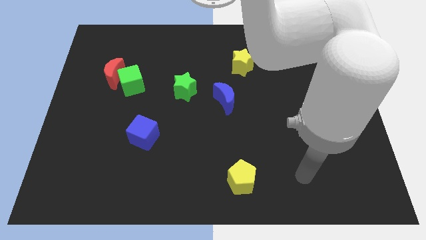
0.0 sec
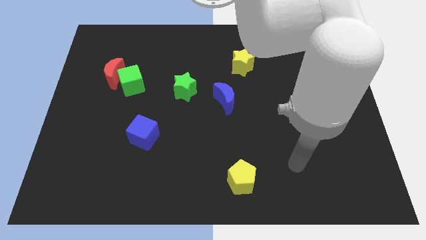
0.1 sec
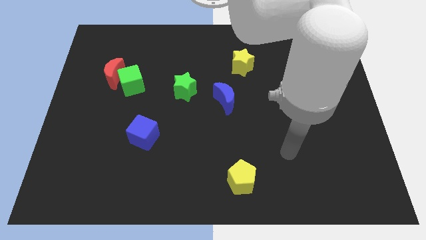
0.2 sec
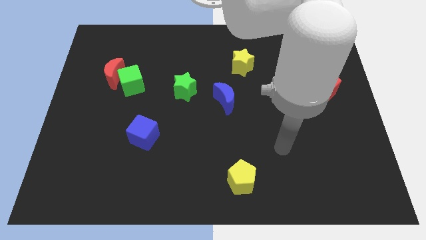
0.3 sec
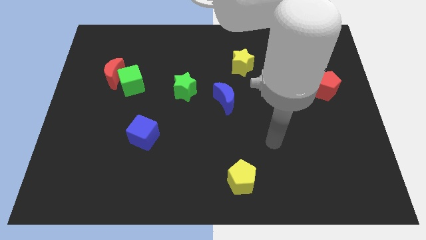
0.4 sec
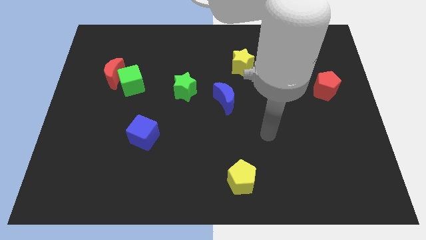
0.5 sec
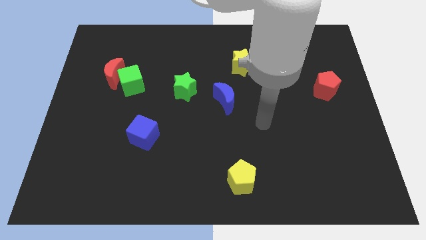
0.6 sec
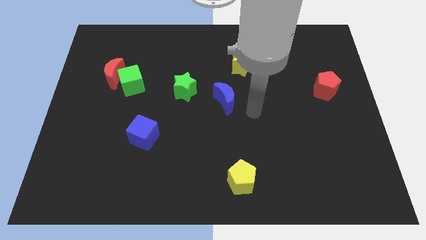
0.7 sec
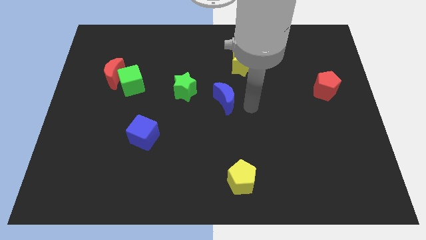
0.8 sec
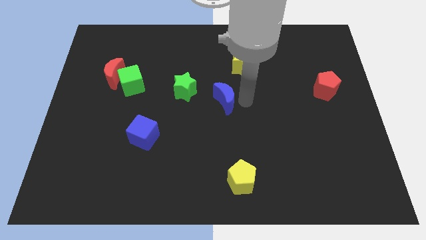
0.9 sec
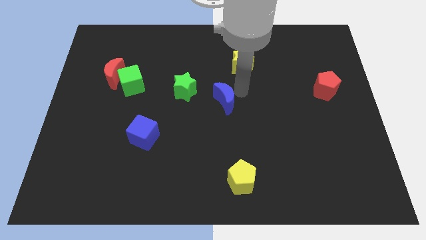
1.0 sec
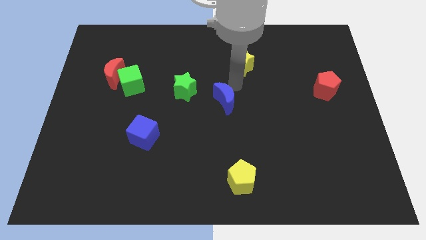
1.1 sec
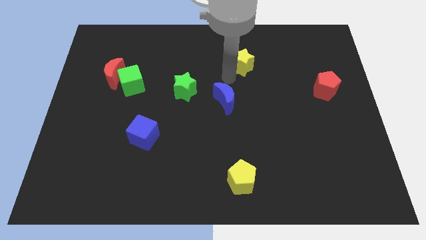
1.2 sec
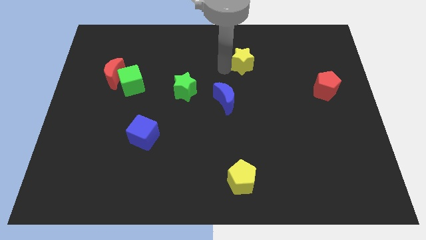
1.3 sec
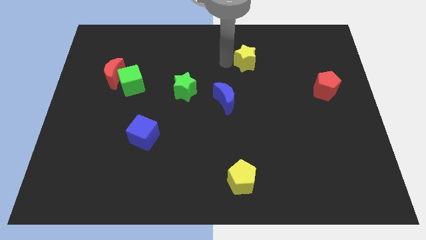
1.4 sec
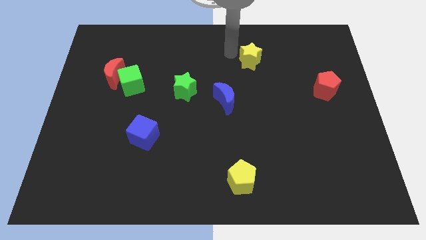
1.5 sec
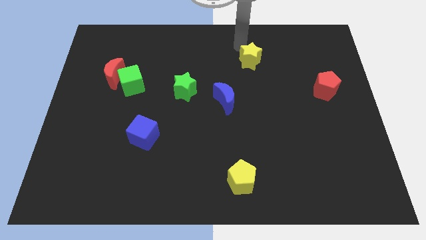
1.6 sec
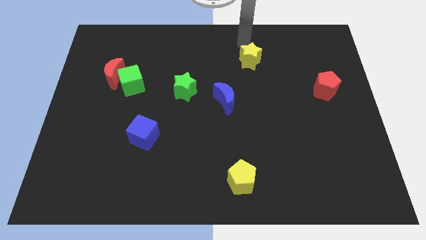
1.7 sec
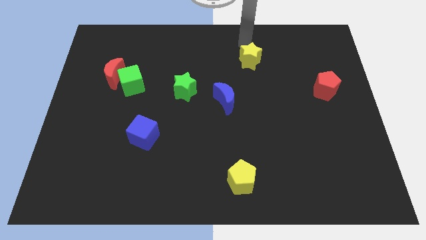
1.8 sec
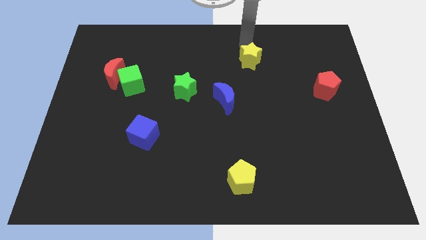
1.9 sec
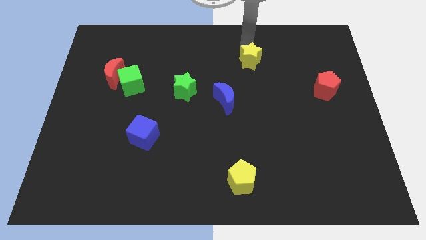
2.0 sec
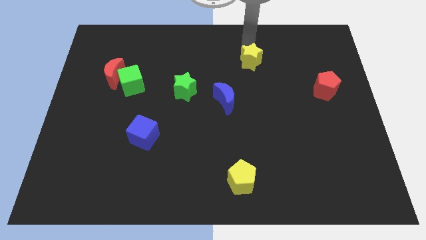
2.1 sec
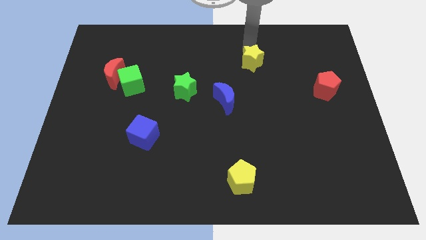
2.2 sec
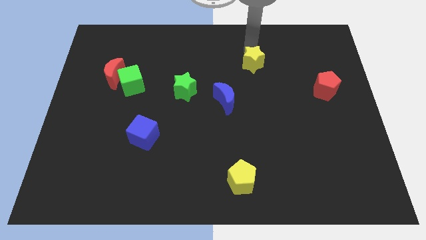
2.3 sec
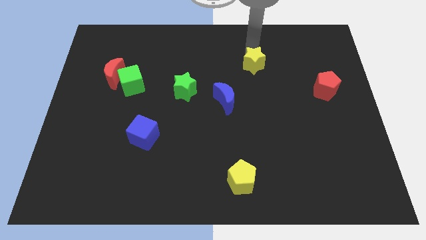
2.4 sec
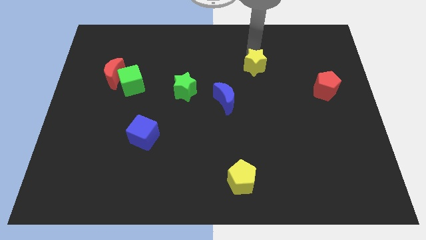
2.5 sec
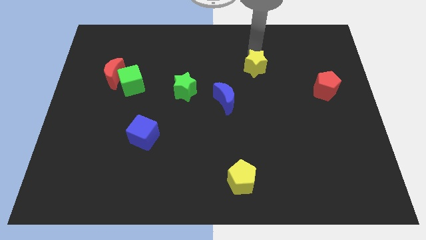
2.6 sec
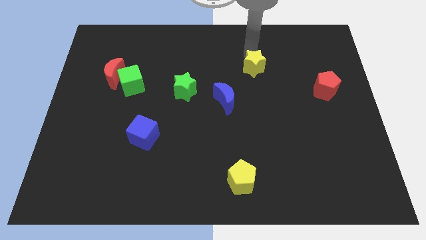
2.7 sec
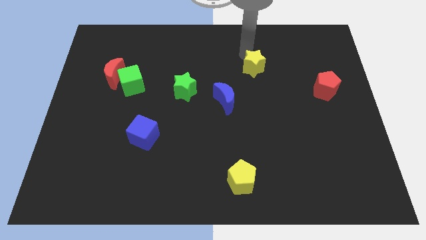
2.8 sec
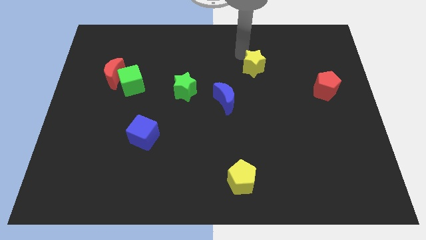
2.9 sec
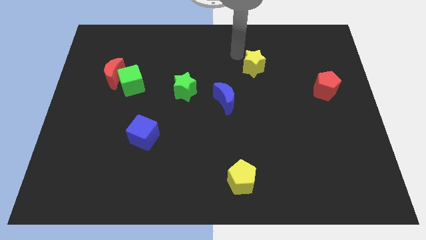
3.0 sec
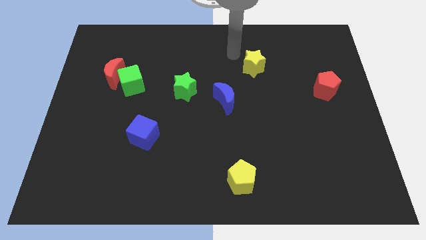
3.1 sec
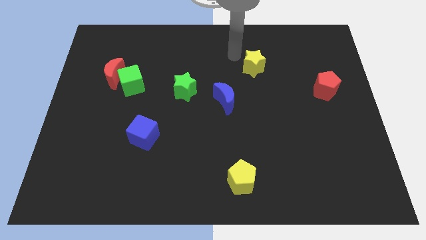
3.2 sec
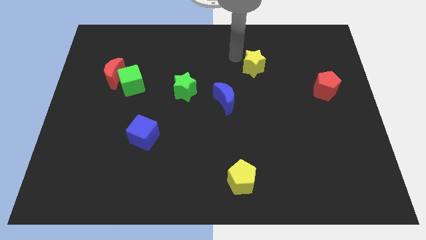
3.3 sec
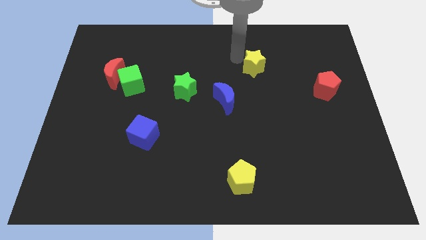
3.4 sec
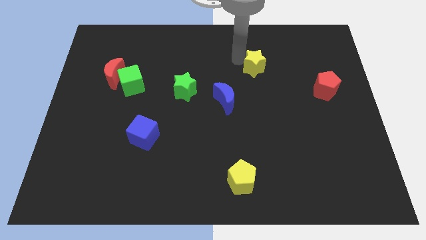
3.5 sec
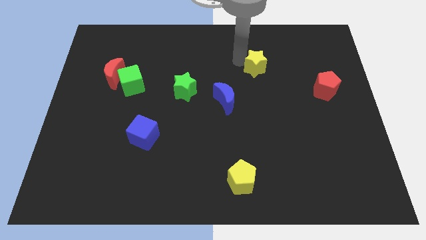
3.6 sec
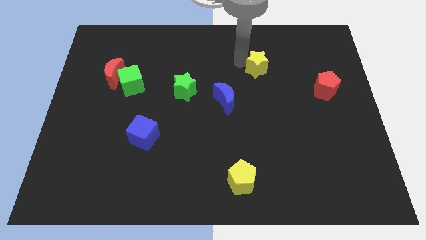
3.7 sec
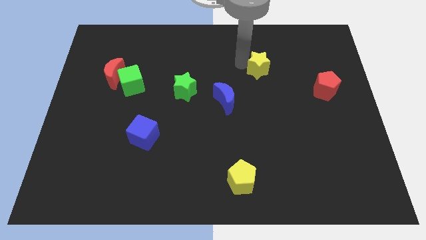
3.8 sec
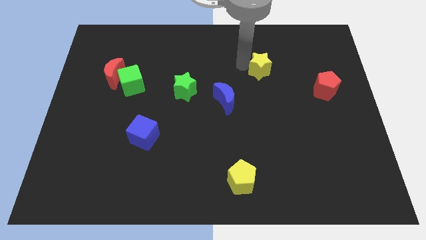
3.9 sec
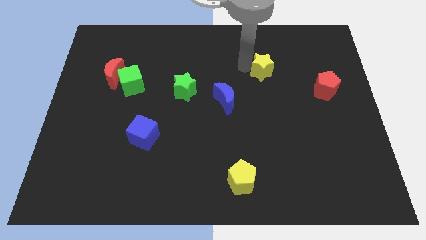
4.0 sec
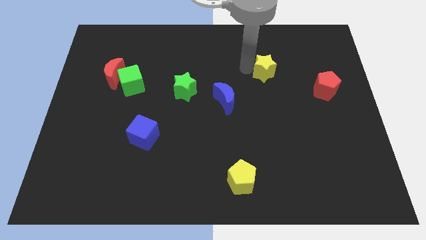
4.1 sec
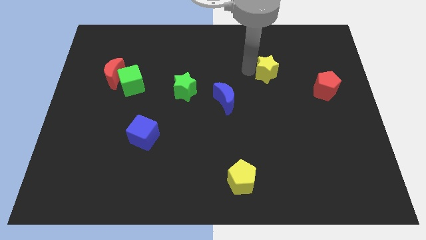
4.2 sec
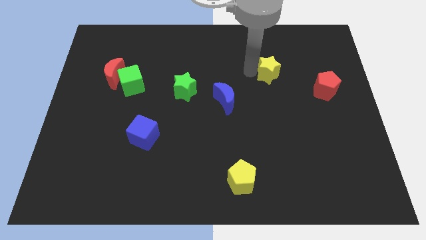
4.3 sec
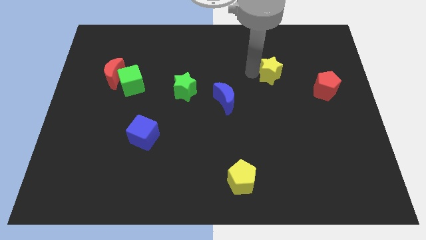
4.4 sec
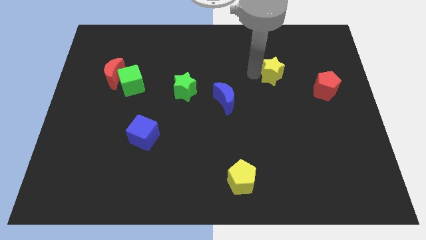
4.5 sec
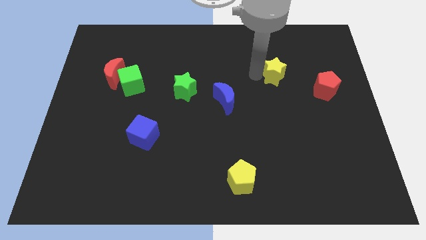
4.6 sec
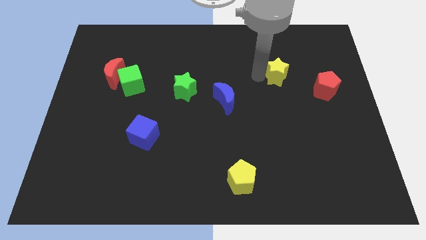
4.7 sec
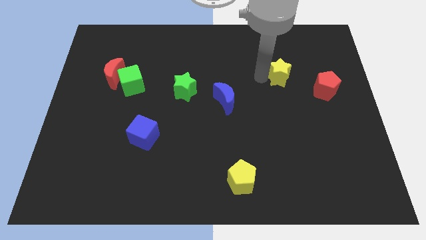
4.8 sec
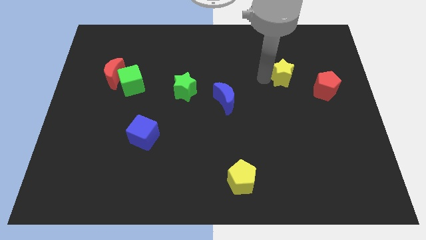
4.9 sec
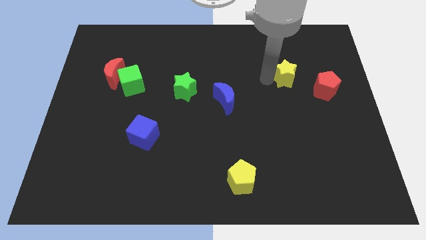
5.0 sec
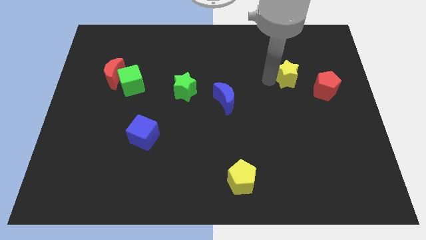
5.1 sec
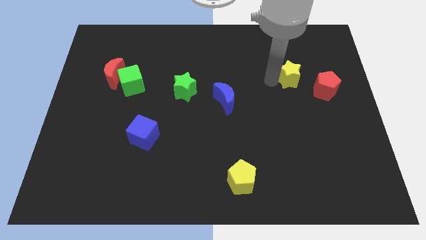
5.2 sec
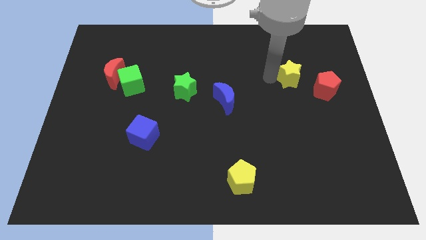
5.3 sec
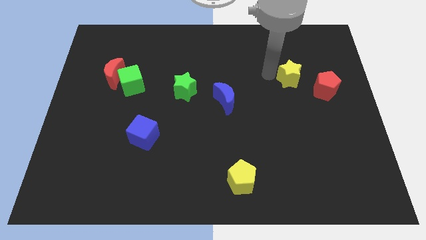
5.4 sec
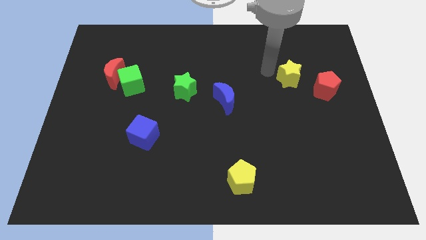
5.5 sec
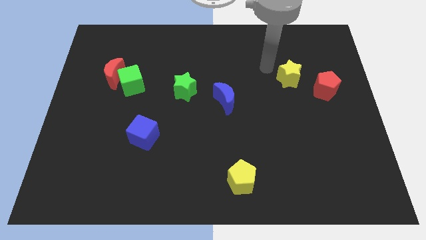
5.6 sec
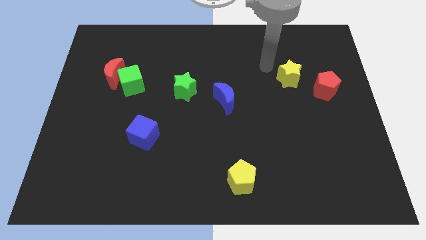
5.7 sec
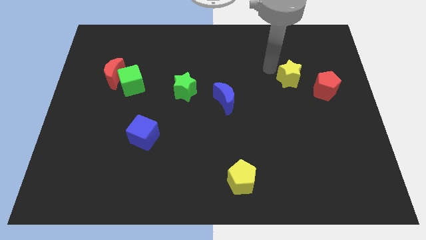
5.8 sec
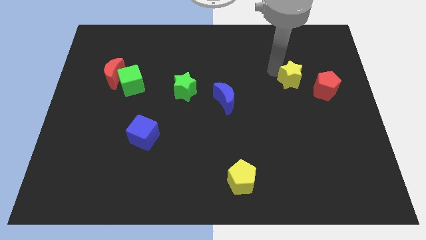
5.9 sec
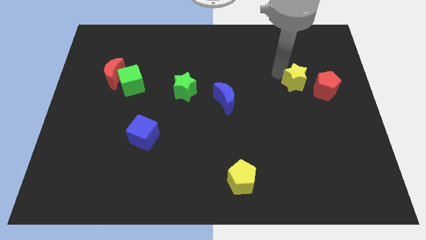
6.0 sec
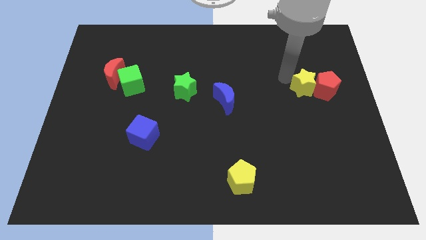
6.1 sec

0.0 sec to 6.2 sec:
slide the yellow star towards the red pentagon

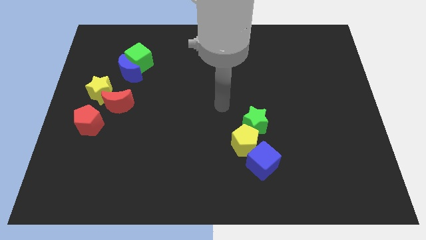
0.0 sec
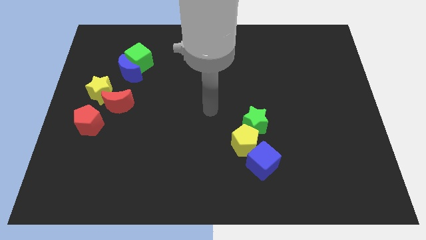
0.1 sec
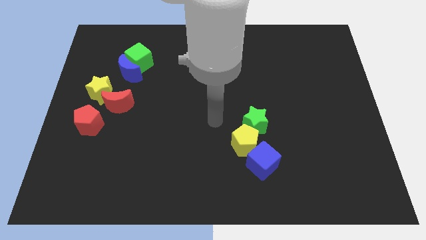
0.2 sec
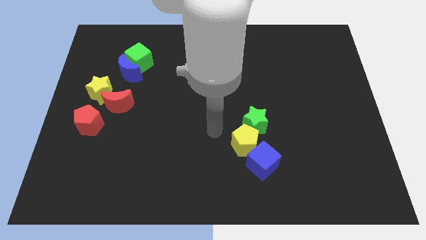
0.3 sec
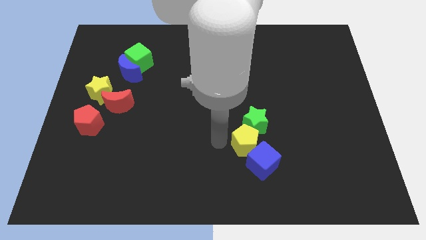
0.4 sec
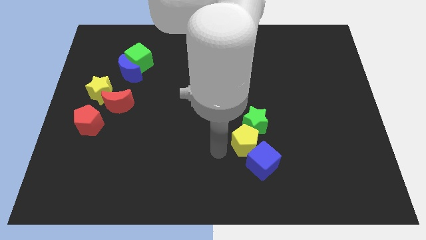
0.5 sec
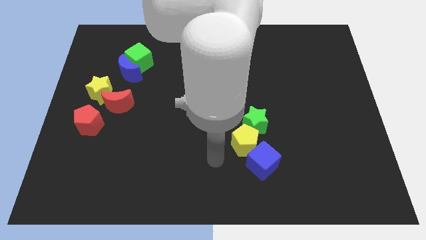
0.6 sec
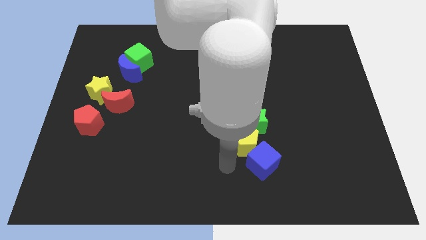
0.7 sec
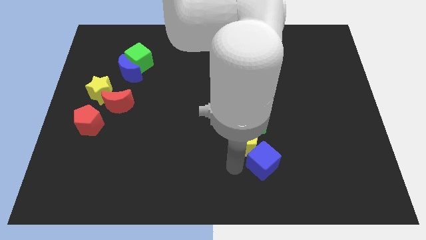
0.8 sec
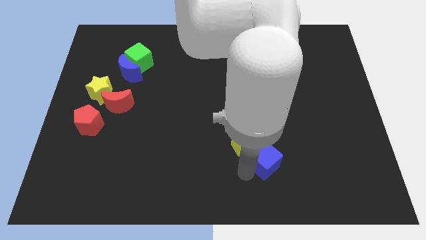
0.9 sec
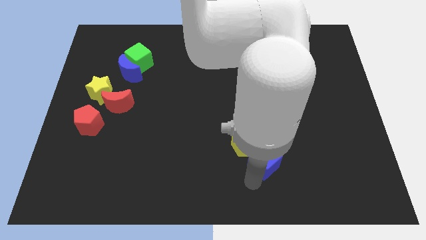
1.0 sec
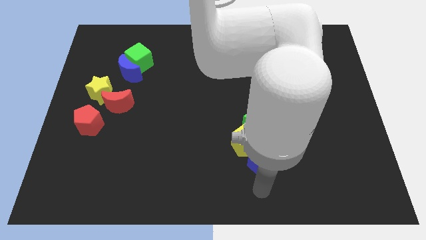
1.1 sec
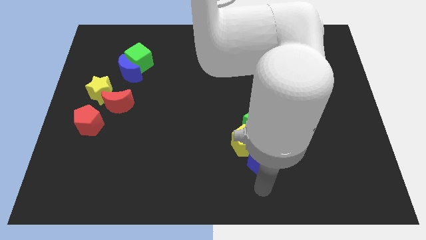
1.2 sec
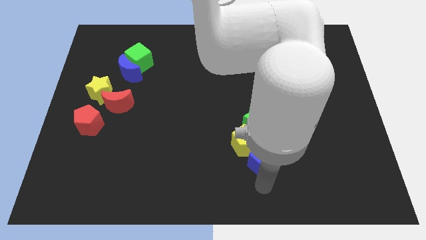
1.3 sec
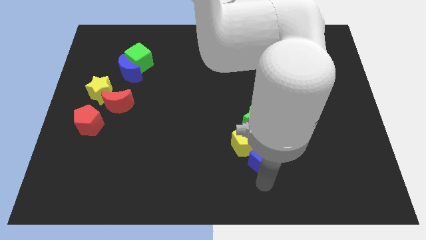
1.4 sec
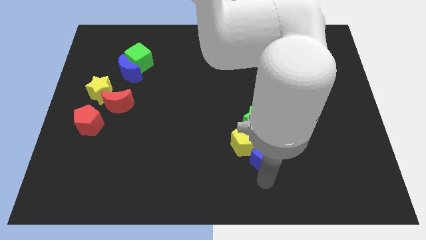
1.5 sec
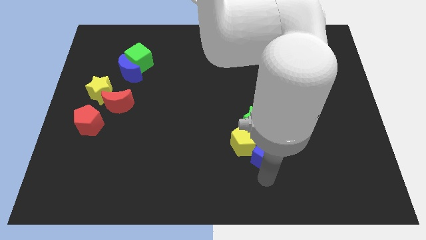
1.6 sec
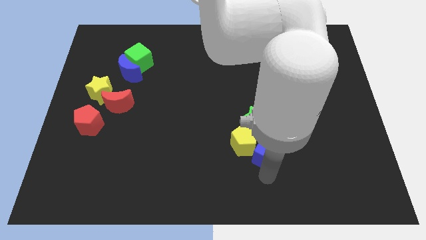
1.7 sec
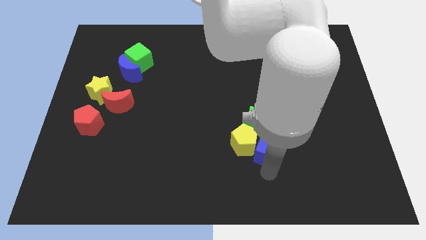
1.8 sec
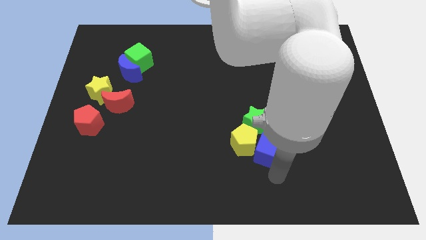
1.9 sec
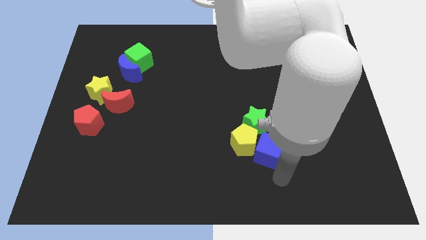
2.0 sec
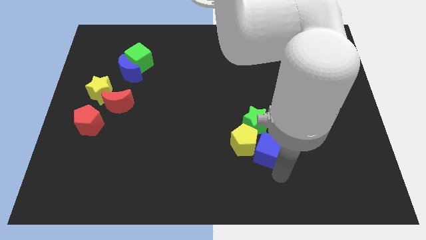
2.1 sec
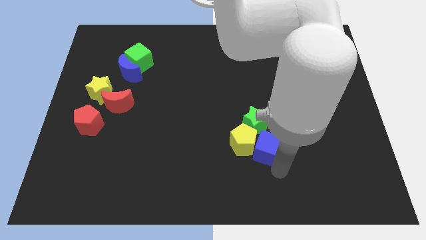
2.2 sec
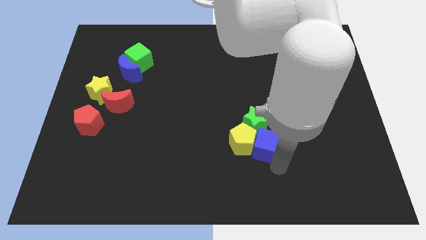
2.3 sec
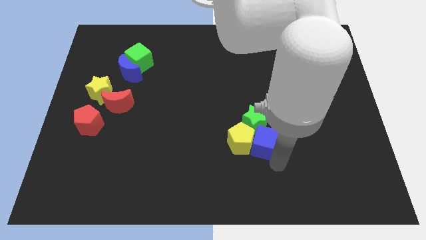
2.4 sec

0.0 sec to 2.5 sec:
move the blue cube towards the green star
